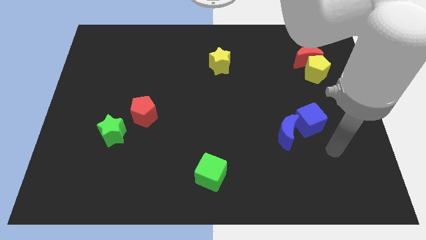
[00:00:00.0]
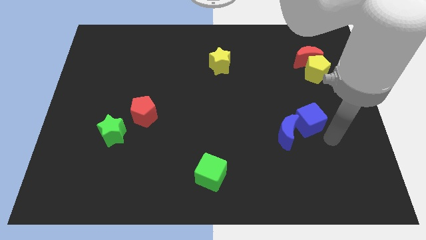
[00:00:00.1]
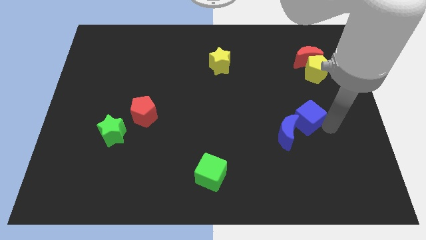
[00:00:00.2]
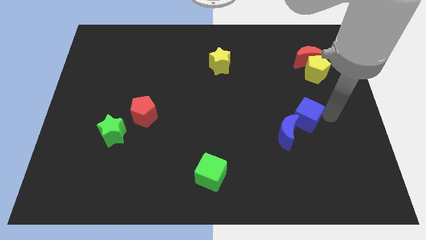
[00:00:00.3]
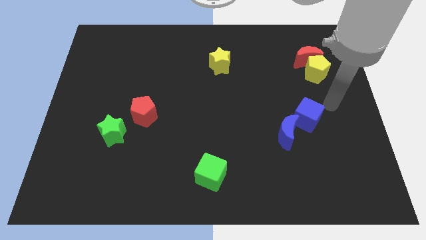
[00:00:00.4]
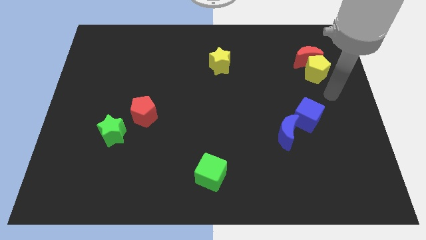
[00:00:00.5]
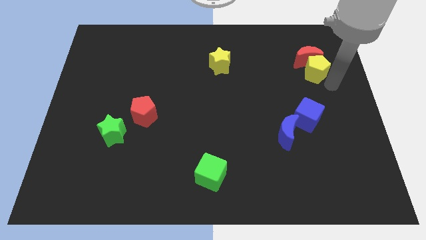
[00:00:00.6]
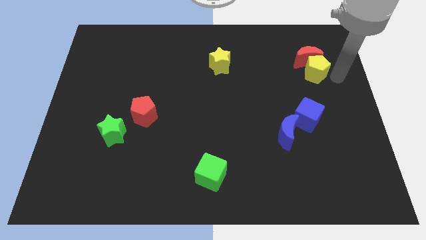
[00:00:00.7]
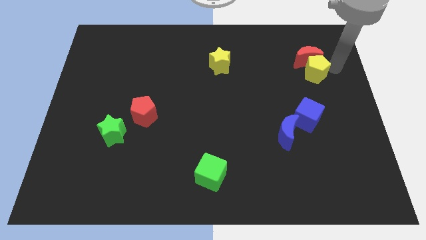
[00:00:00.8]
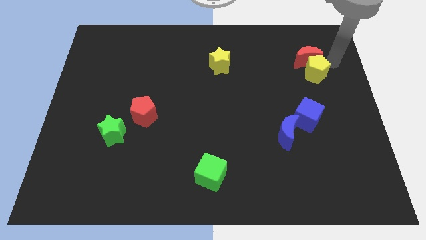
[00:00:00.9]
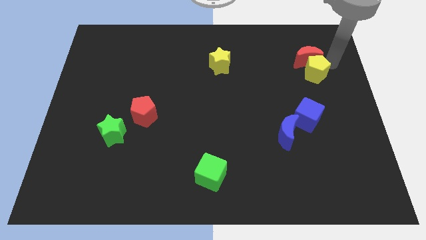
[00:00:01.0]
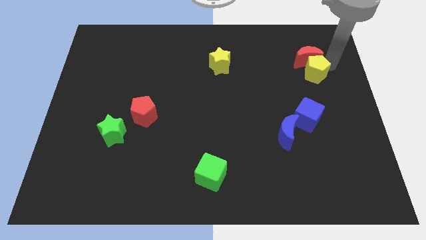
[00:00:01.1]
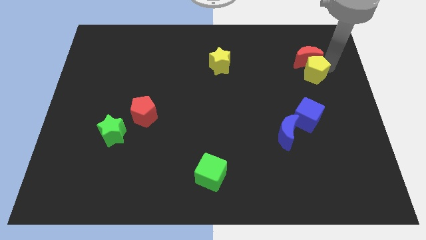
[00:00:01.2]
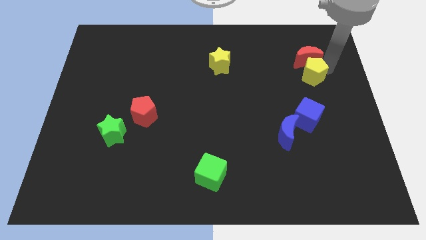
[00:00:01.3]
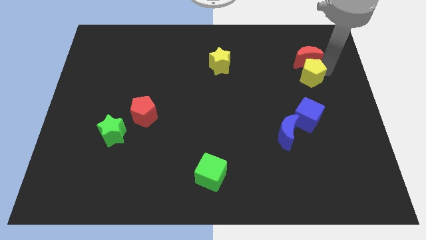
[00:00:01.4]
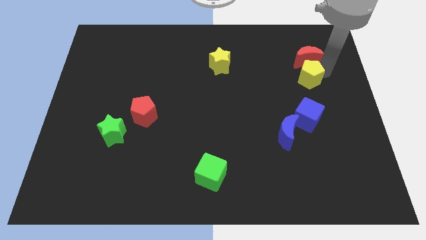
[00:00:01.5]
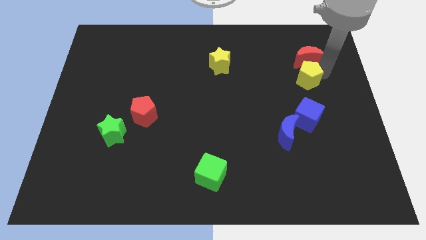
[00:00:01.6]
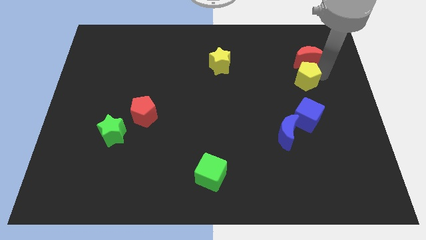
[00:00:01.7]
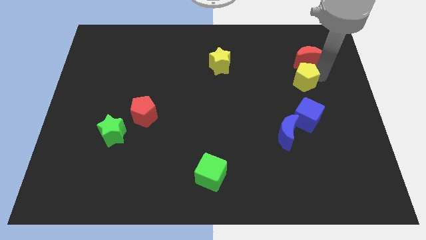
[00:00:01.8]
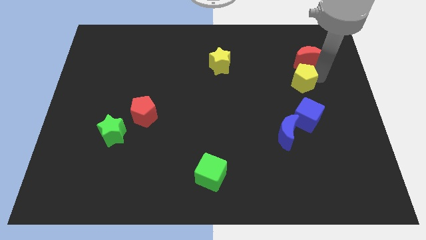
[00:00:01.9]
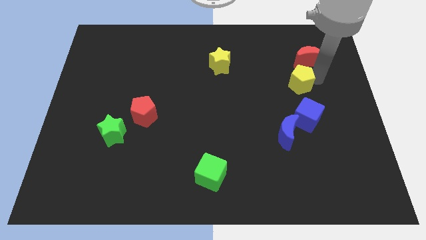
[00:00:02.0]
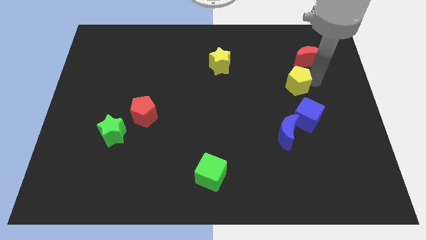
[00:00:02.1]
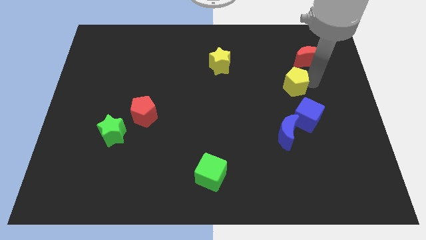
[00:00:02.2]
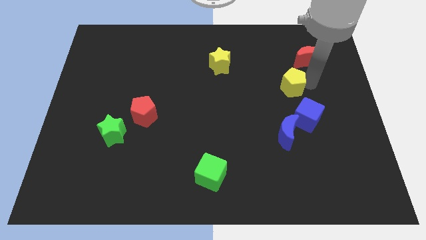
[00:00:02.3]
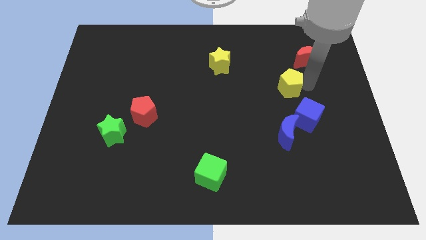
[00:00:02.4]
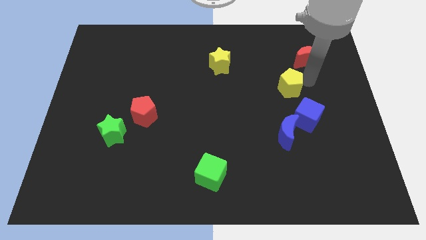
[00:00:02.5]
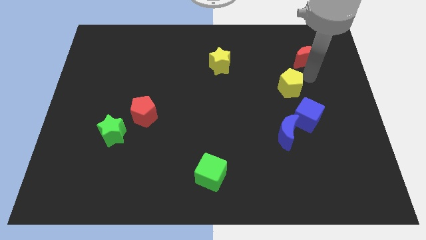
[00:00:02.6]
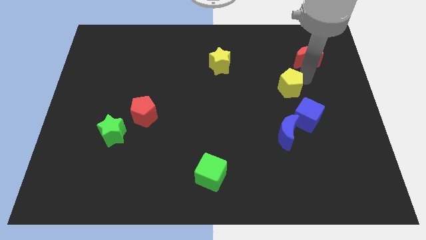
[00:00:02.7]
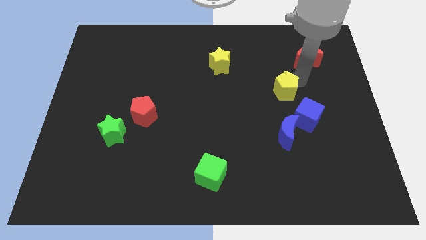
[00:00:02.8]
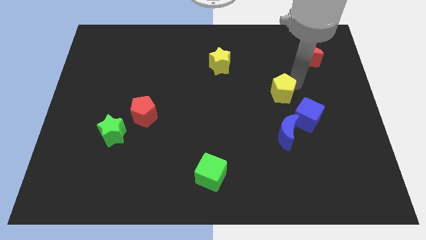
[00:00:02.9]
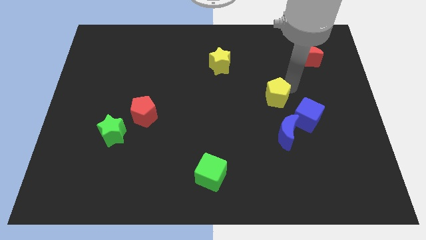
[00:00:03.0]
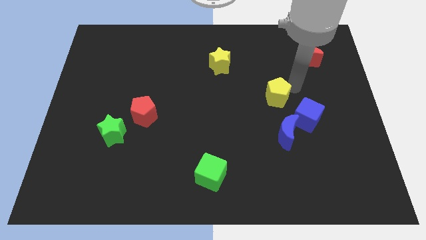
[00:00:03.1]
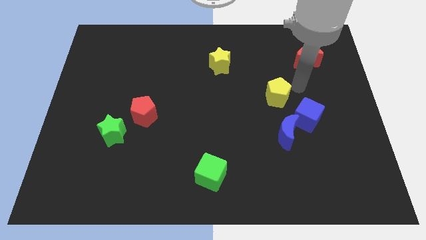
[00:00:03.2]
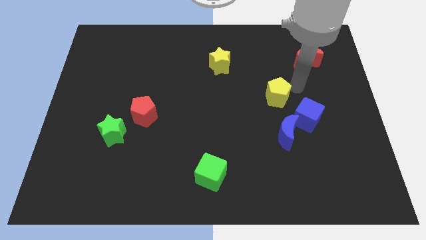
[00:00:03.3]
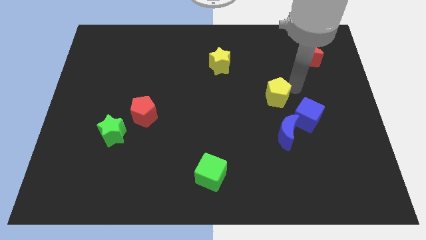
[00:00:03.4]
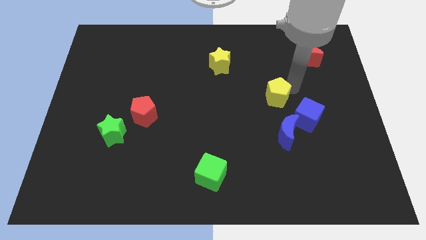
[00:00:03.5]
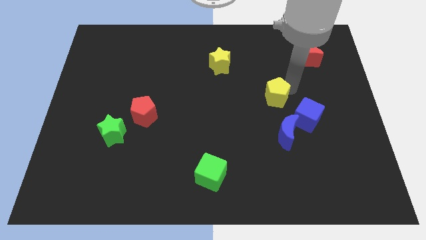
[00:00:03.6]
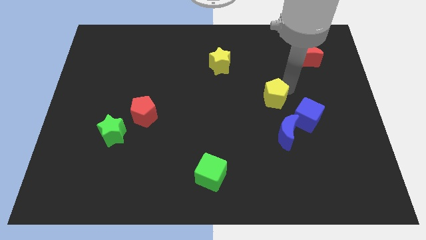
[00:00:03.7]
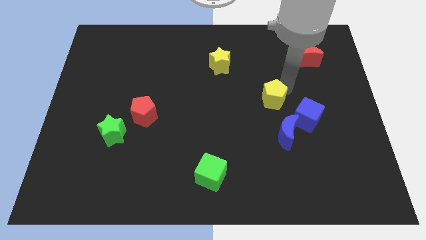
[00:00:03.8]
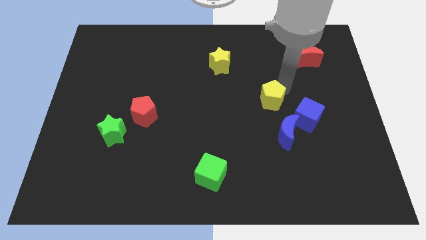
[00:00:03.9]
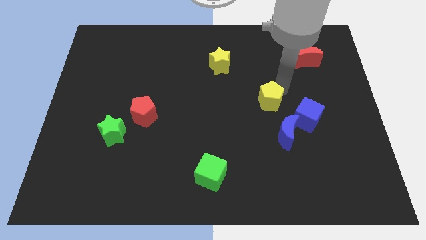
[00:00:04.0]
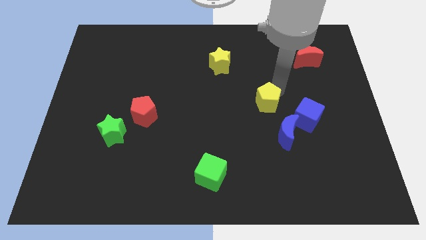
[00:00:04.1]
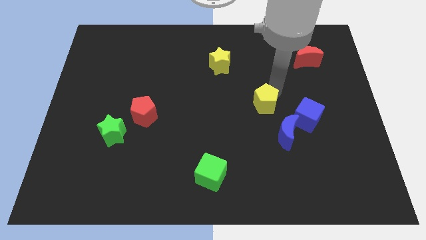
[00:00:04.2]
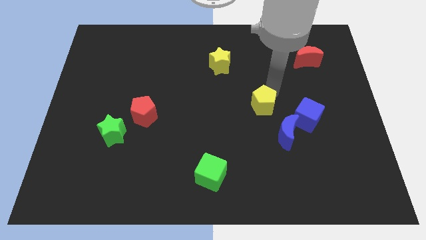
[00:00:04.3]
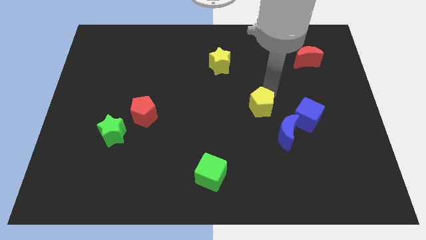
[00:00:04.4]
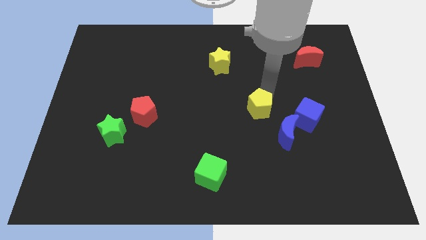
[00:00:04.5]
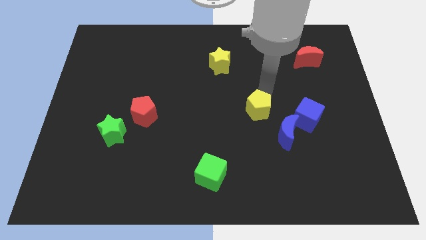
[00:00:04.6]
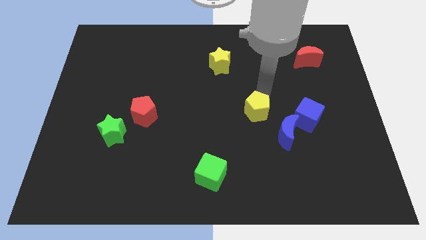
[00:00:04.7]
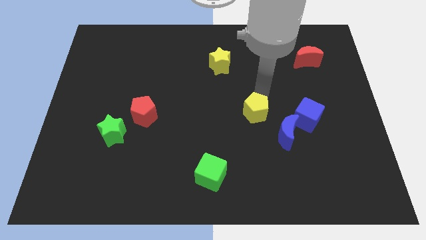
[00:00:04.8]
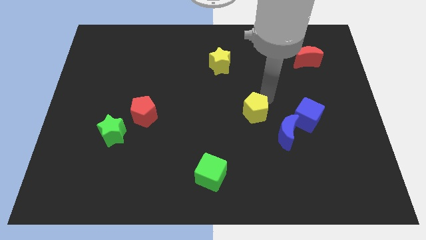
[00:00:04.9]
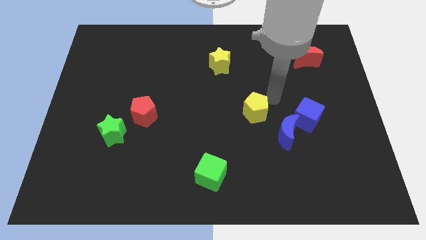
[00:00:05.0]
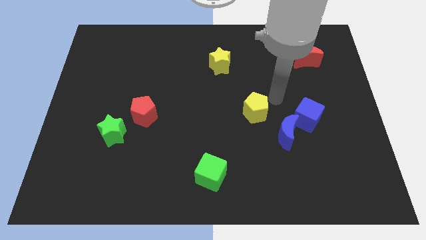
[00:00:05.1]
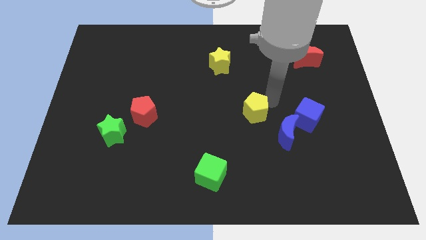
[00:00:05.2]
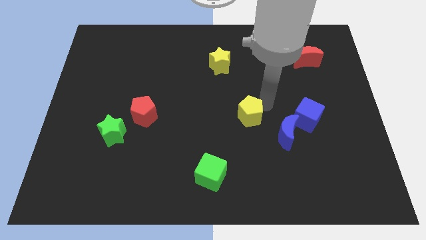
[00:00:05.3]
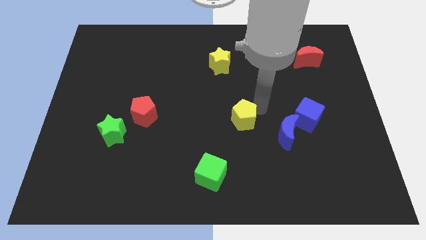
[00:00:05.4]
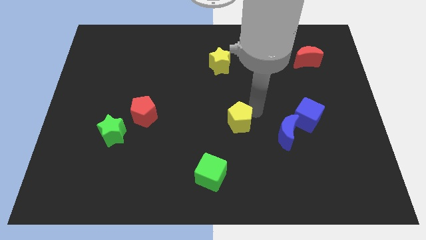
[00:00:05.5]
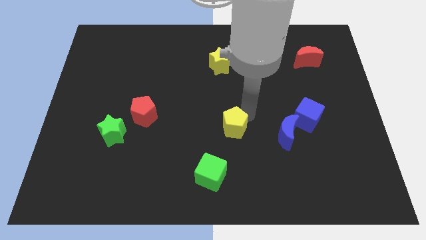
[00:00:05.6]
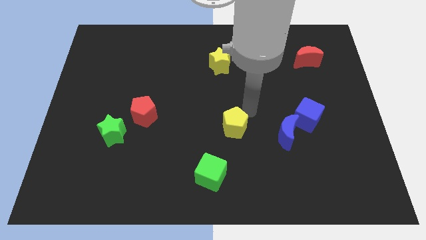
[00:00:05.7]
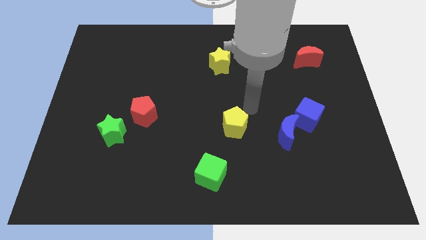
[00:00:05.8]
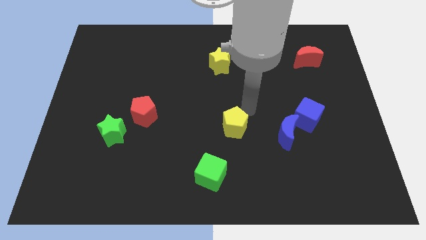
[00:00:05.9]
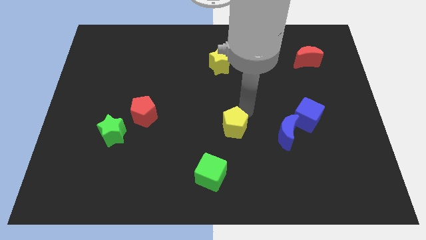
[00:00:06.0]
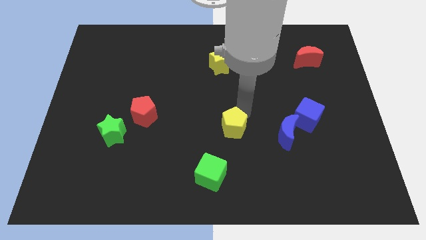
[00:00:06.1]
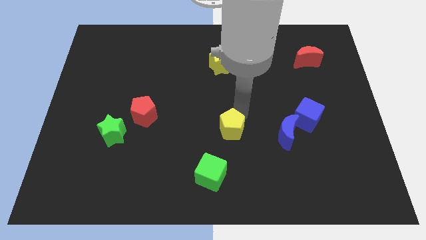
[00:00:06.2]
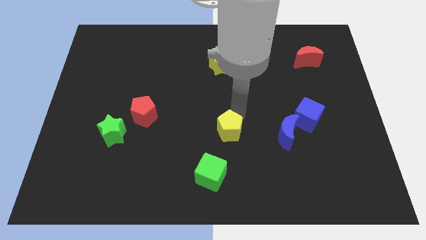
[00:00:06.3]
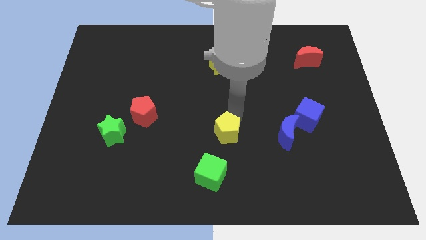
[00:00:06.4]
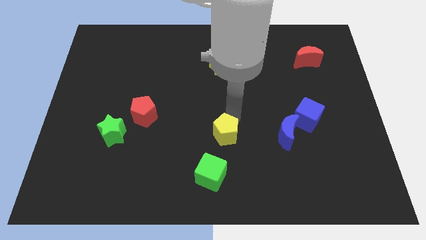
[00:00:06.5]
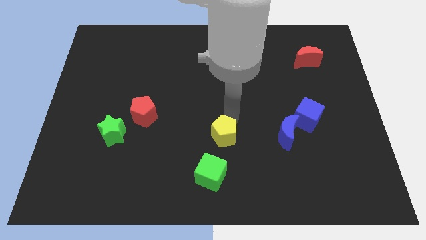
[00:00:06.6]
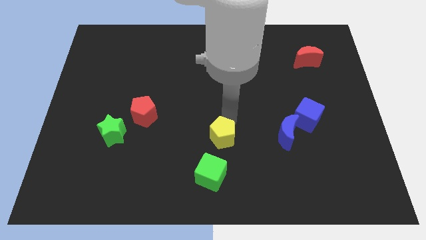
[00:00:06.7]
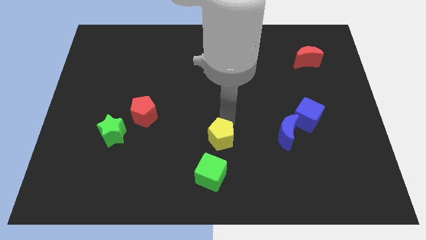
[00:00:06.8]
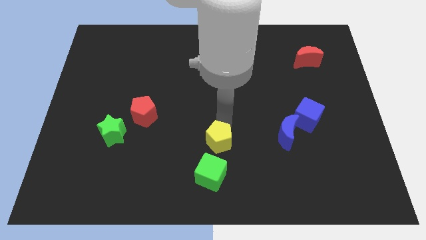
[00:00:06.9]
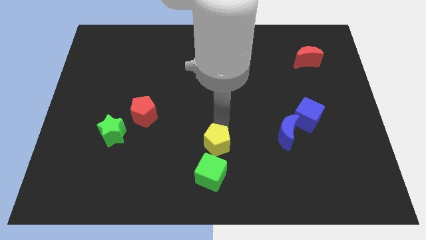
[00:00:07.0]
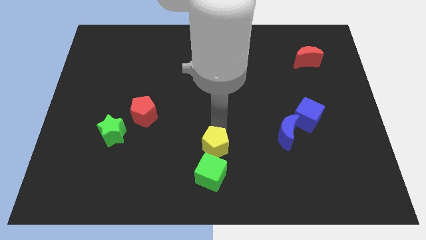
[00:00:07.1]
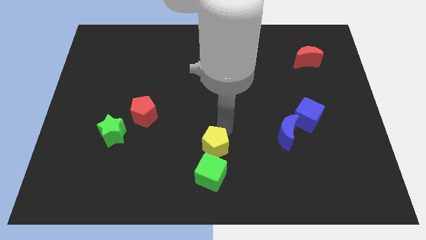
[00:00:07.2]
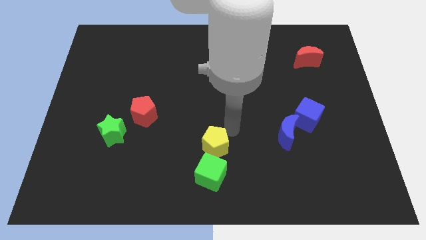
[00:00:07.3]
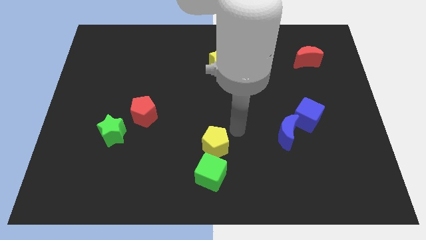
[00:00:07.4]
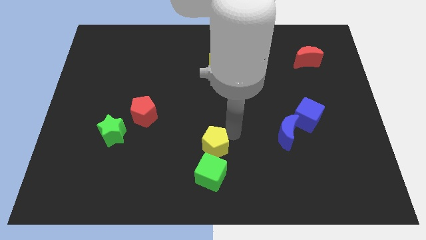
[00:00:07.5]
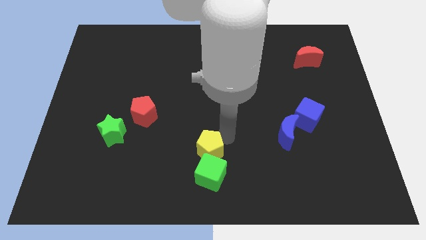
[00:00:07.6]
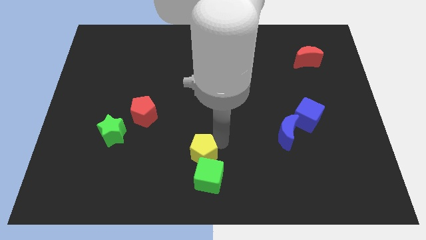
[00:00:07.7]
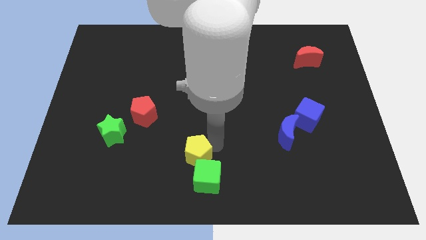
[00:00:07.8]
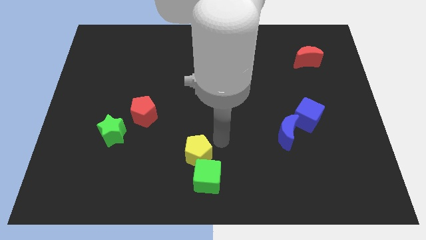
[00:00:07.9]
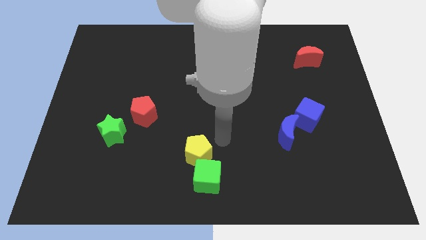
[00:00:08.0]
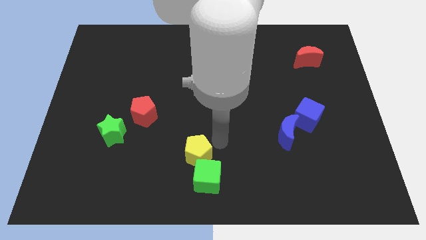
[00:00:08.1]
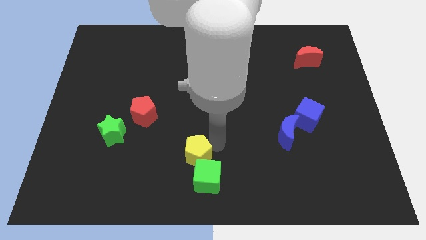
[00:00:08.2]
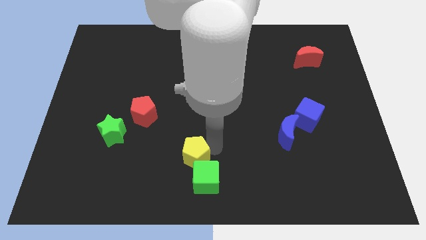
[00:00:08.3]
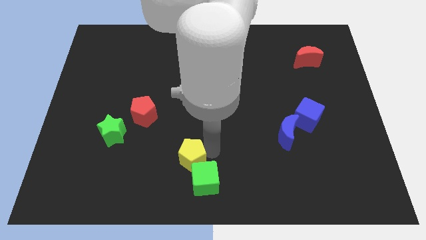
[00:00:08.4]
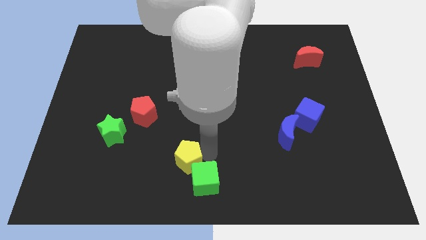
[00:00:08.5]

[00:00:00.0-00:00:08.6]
put the yellow pentagon left of the green cube
